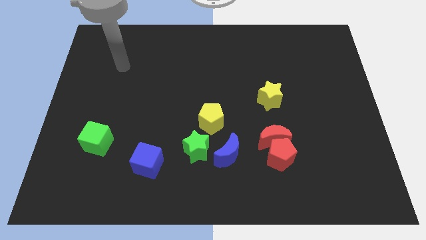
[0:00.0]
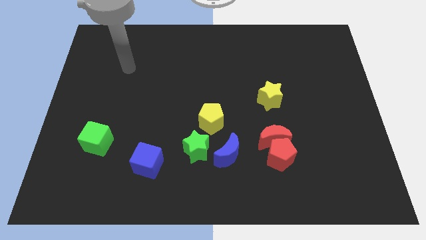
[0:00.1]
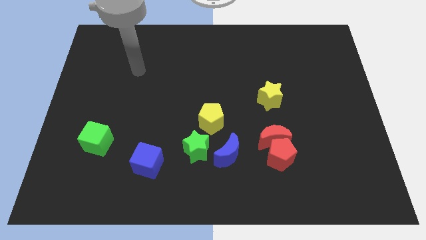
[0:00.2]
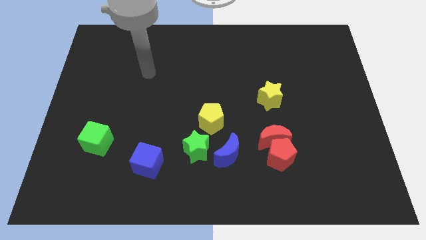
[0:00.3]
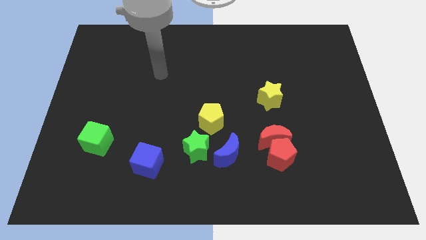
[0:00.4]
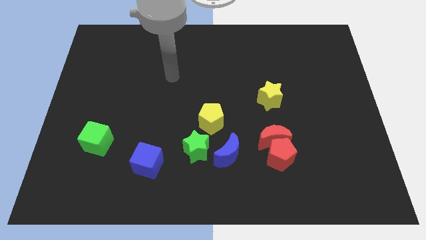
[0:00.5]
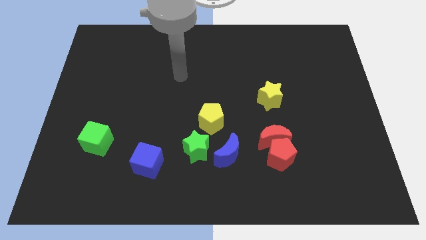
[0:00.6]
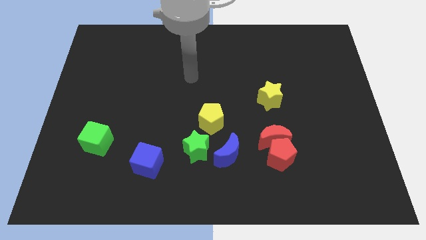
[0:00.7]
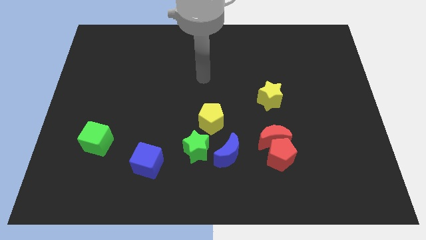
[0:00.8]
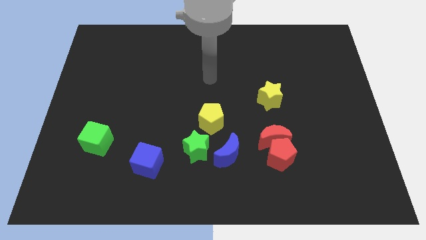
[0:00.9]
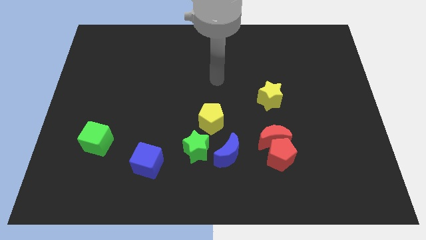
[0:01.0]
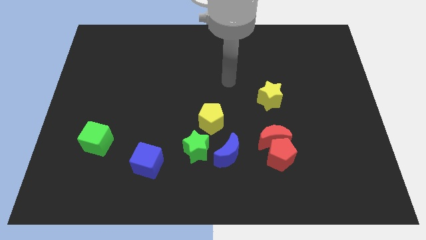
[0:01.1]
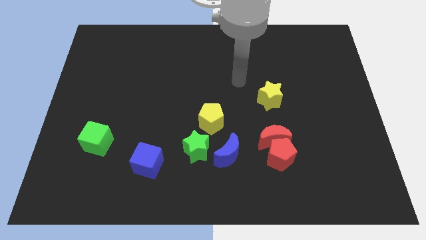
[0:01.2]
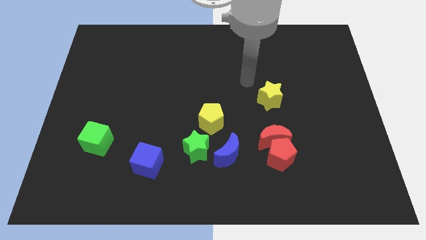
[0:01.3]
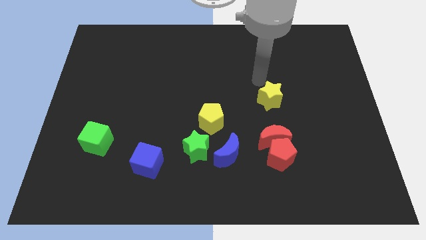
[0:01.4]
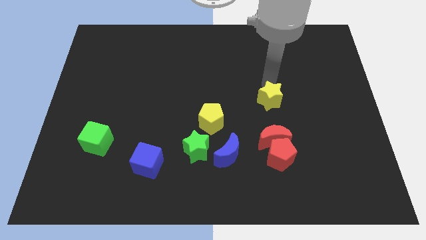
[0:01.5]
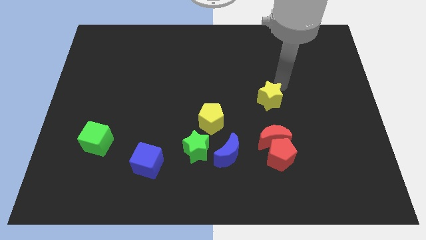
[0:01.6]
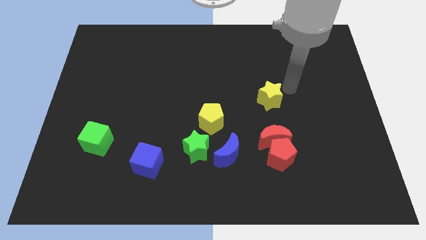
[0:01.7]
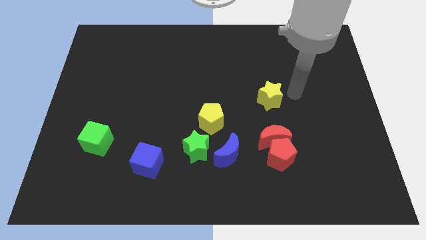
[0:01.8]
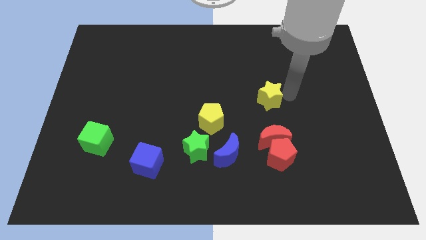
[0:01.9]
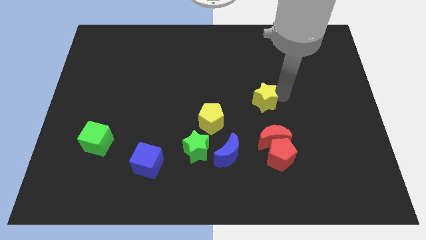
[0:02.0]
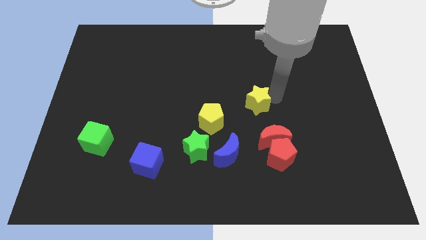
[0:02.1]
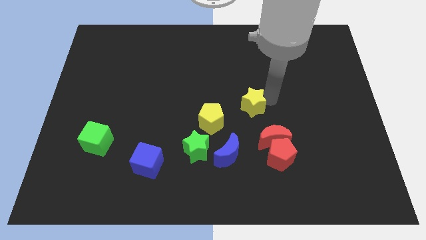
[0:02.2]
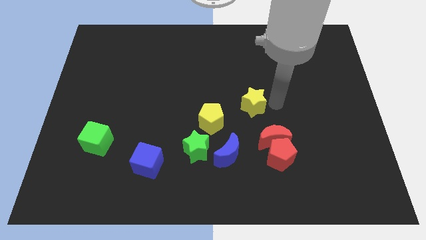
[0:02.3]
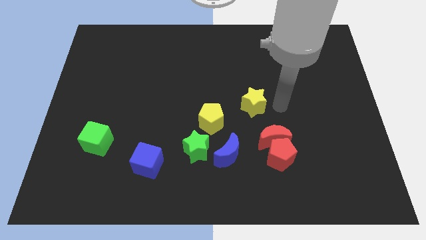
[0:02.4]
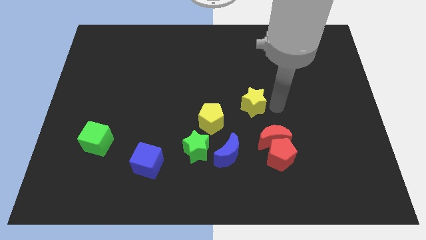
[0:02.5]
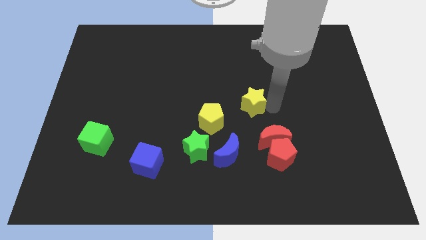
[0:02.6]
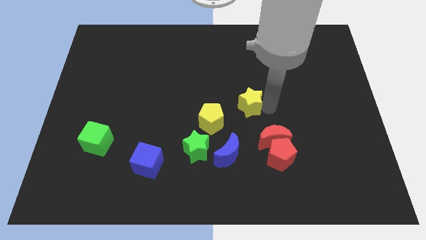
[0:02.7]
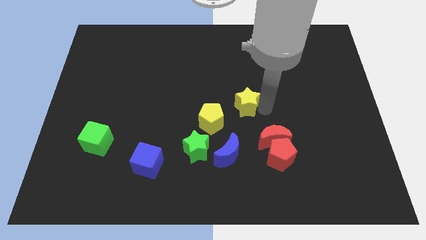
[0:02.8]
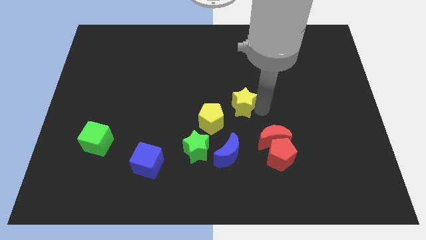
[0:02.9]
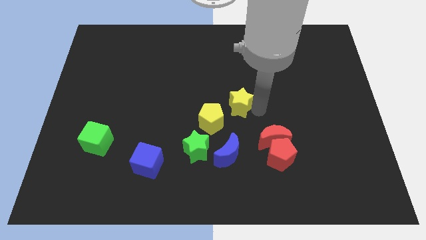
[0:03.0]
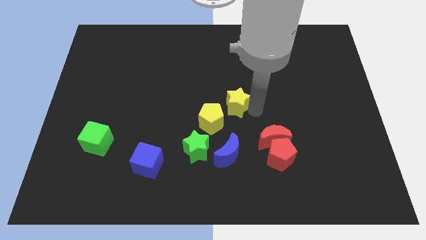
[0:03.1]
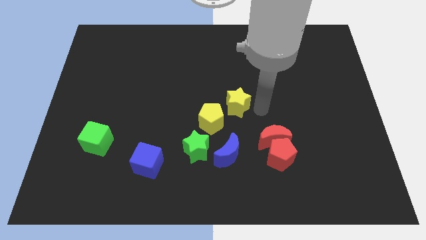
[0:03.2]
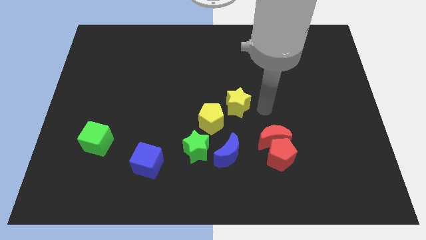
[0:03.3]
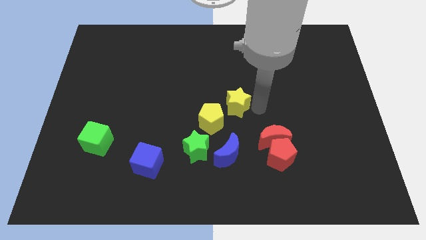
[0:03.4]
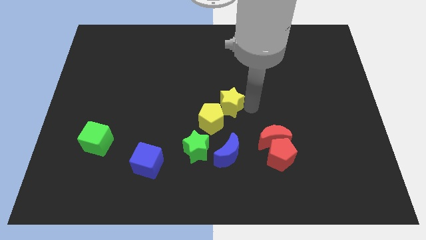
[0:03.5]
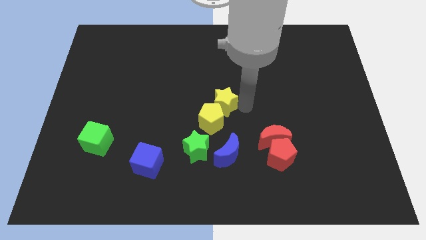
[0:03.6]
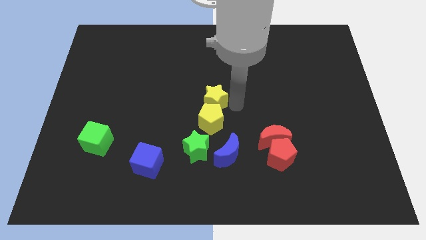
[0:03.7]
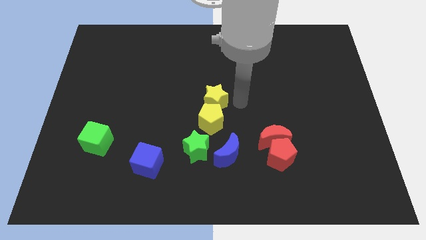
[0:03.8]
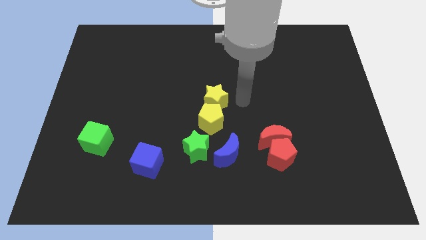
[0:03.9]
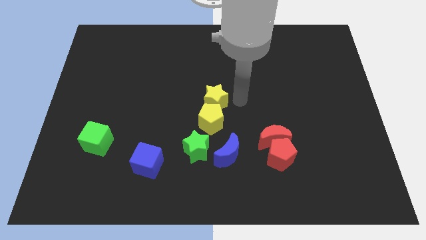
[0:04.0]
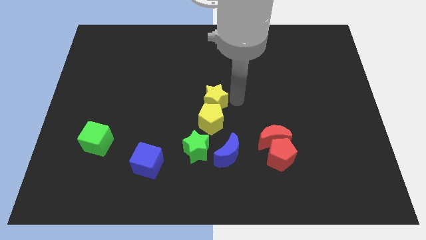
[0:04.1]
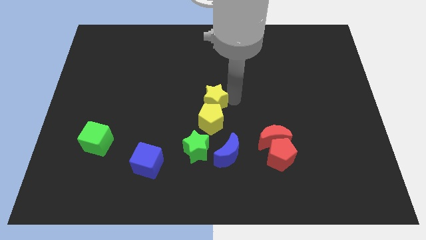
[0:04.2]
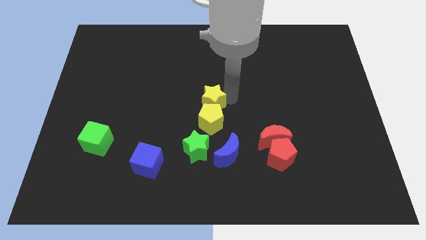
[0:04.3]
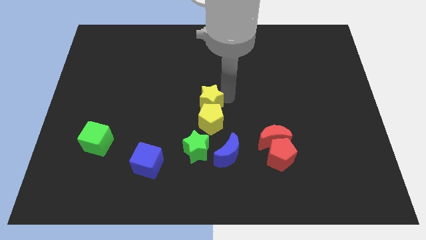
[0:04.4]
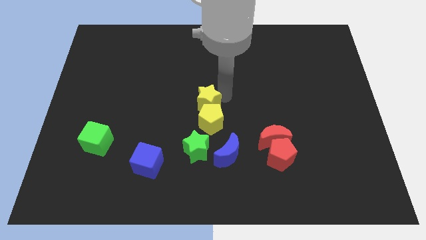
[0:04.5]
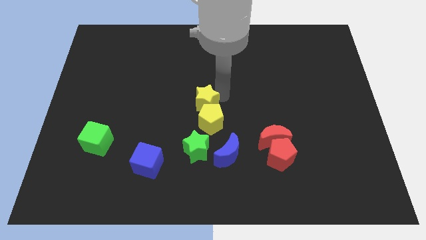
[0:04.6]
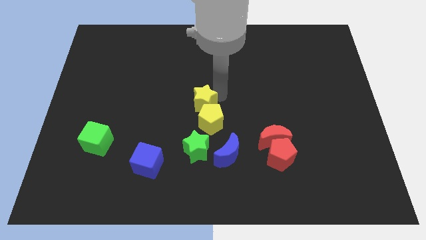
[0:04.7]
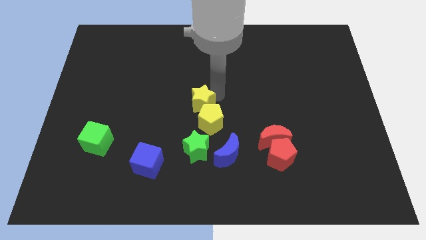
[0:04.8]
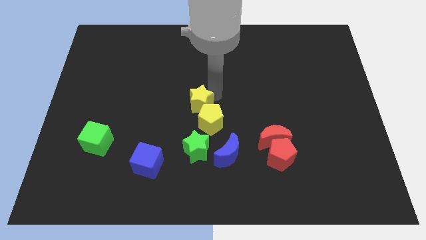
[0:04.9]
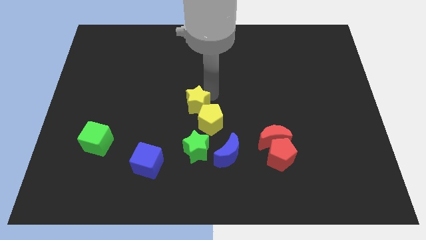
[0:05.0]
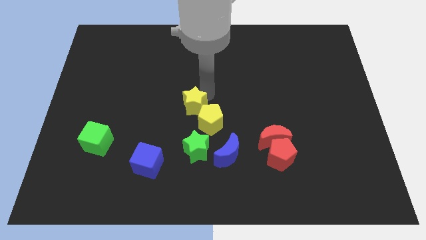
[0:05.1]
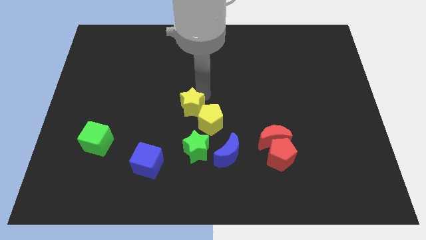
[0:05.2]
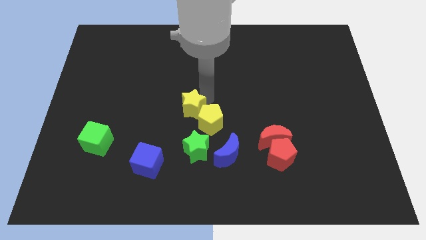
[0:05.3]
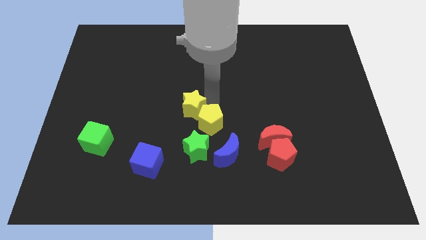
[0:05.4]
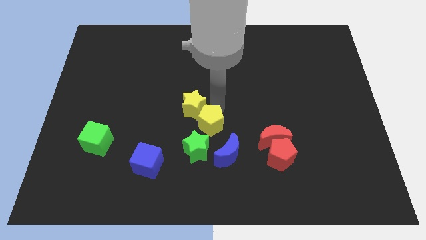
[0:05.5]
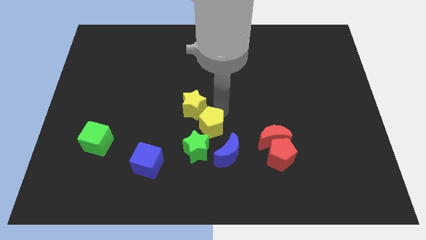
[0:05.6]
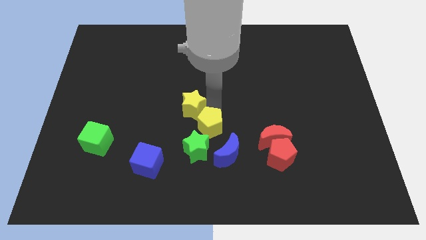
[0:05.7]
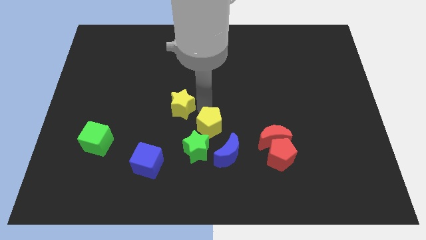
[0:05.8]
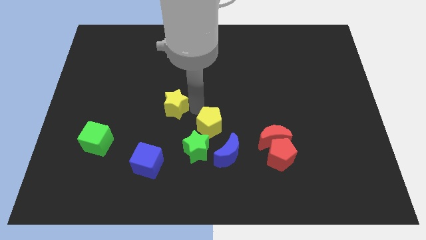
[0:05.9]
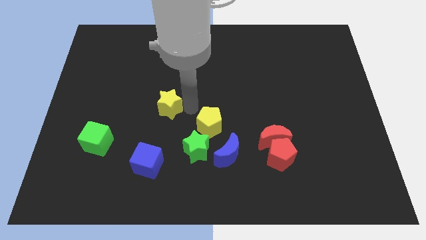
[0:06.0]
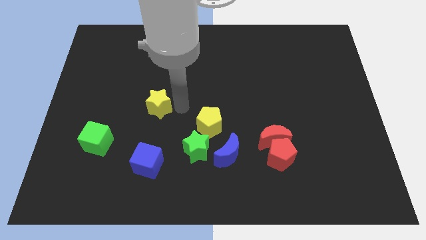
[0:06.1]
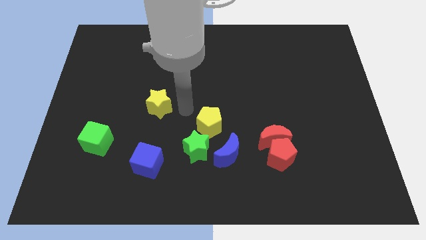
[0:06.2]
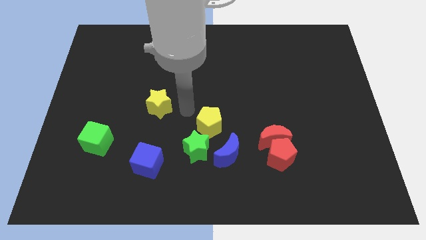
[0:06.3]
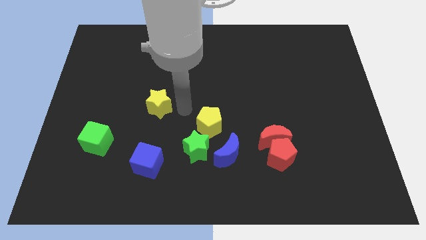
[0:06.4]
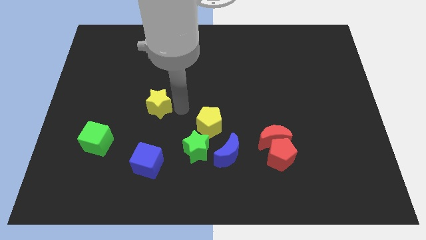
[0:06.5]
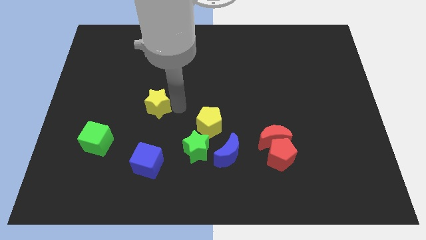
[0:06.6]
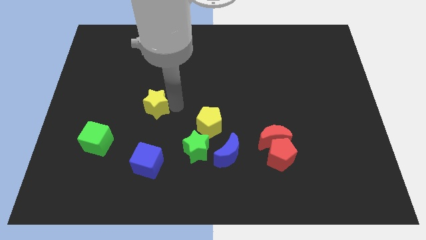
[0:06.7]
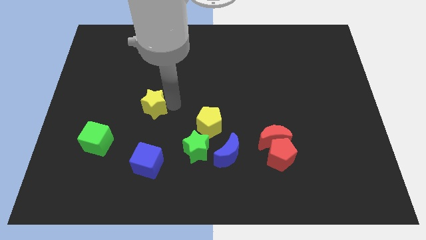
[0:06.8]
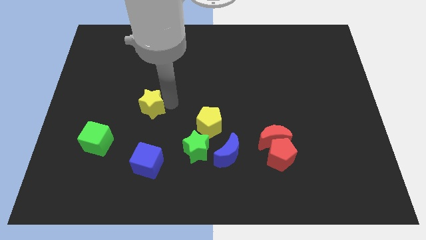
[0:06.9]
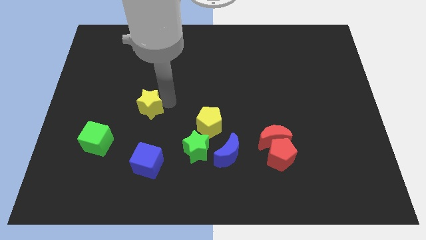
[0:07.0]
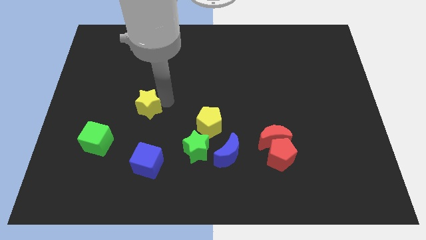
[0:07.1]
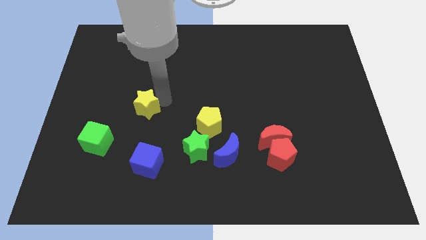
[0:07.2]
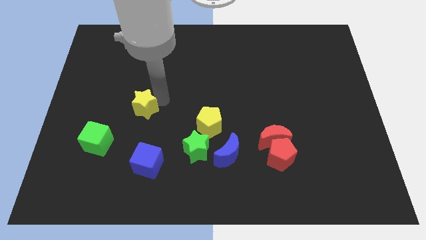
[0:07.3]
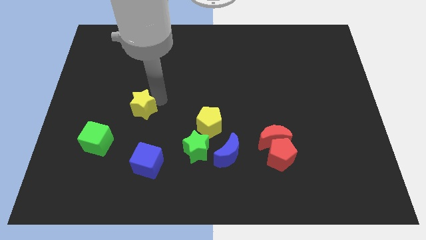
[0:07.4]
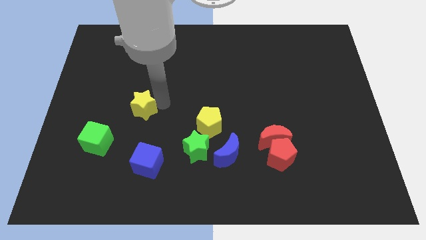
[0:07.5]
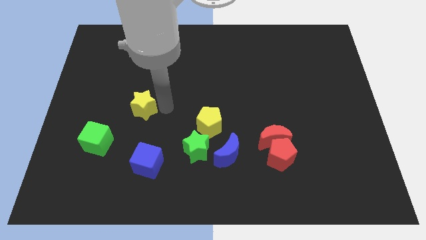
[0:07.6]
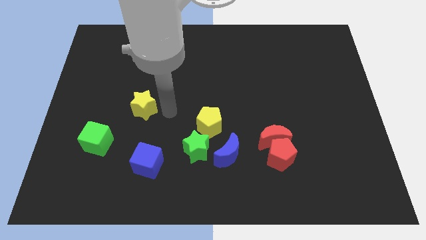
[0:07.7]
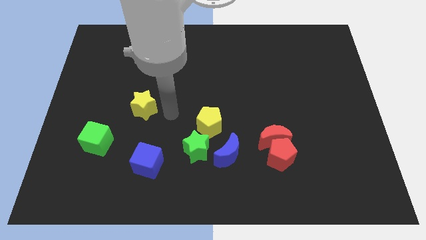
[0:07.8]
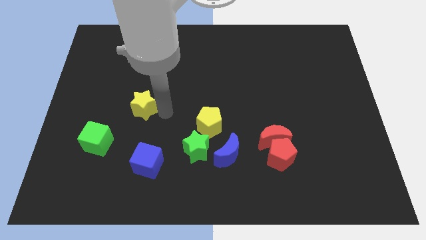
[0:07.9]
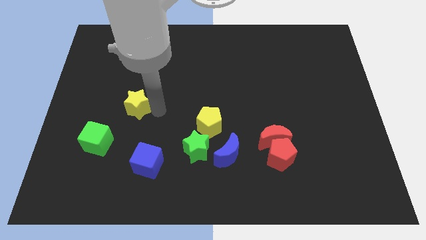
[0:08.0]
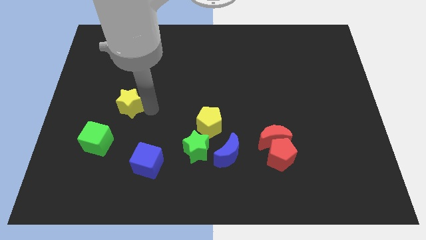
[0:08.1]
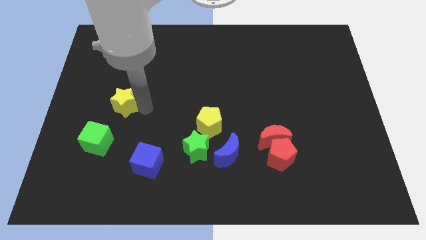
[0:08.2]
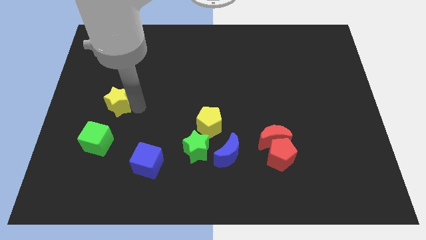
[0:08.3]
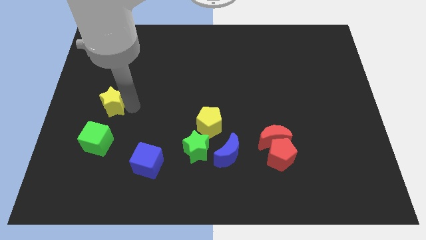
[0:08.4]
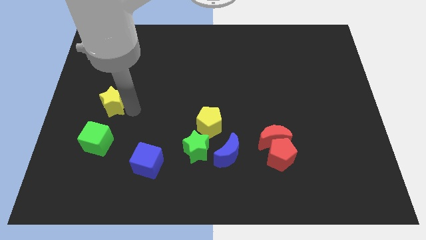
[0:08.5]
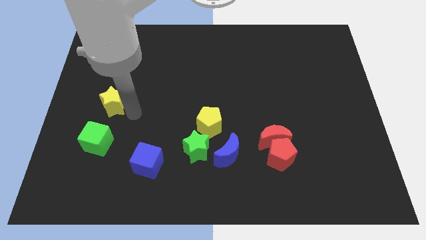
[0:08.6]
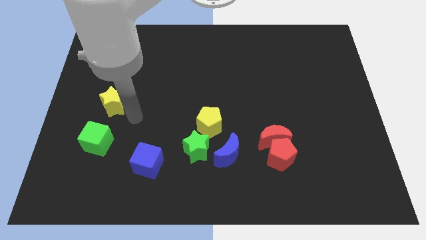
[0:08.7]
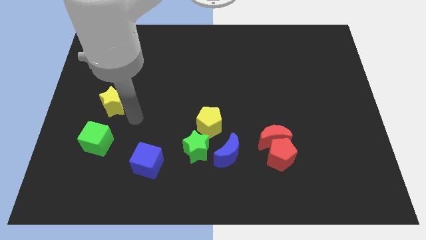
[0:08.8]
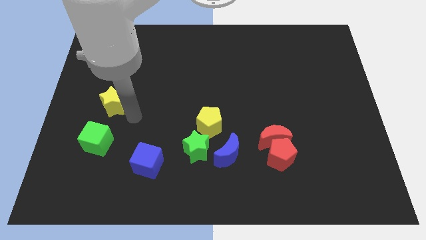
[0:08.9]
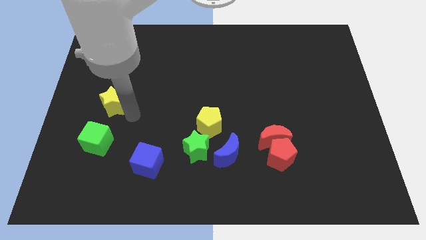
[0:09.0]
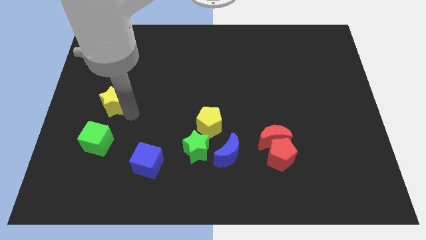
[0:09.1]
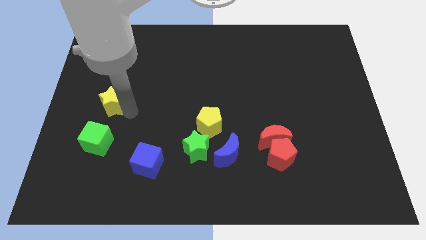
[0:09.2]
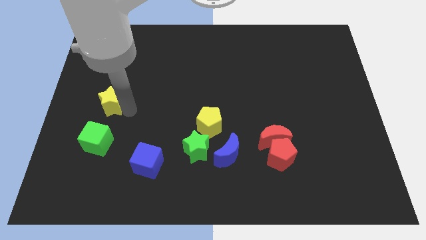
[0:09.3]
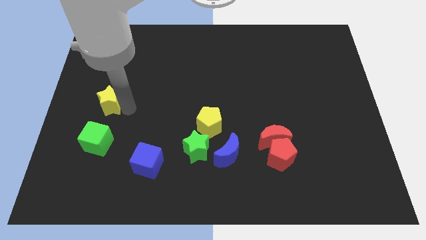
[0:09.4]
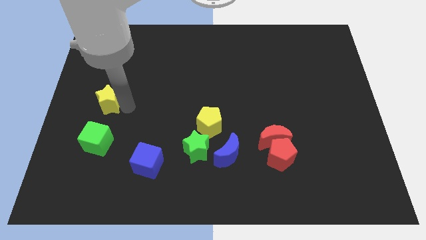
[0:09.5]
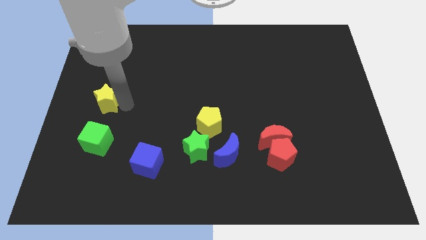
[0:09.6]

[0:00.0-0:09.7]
push the yellow star to the left side of the board
